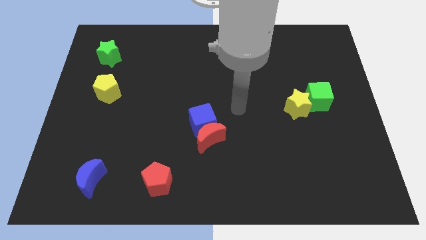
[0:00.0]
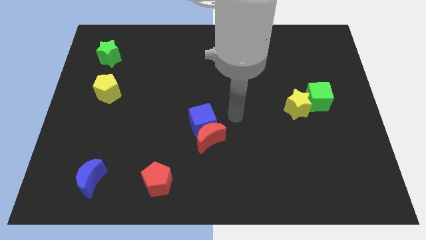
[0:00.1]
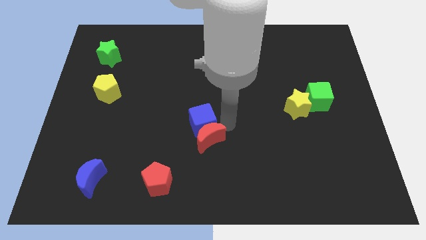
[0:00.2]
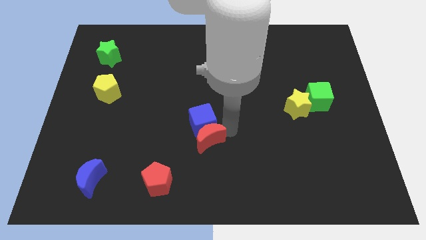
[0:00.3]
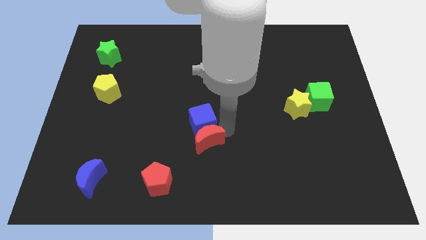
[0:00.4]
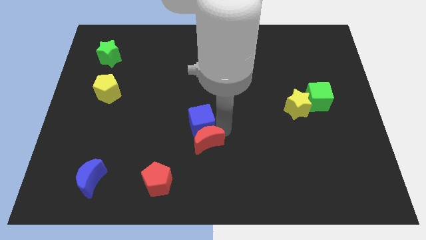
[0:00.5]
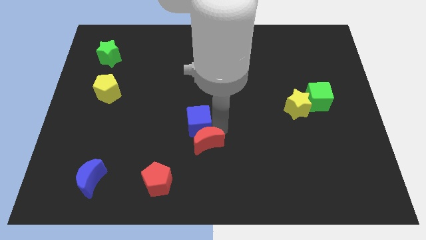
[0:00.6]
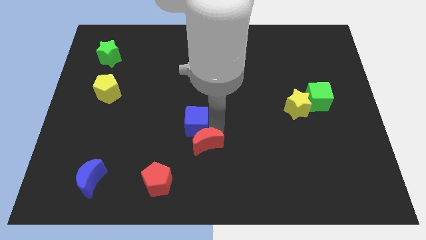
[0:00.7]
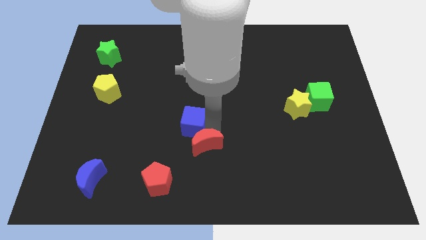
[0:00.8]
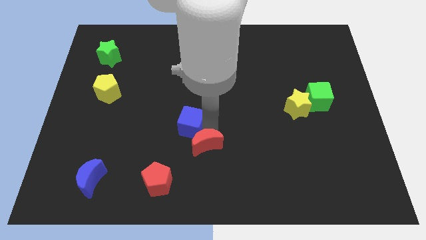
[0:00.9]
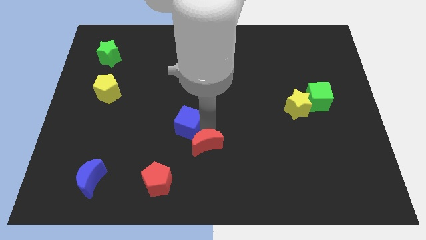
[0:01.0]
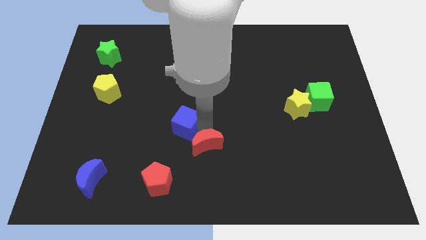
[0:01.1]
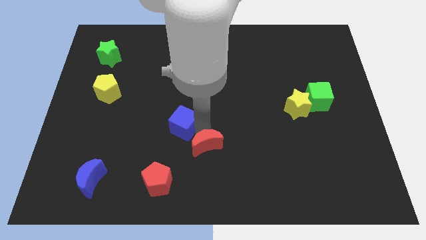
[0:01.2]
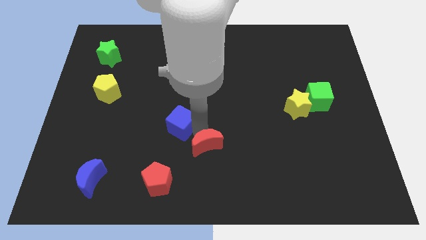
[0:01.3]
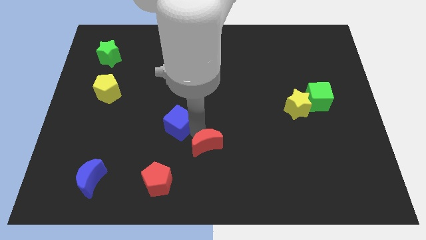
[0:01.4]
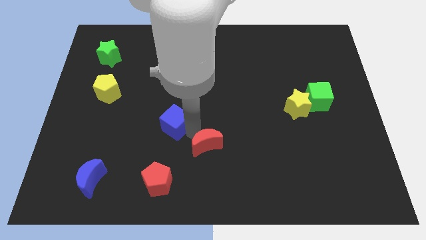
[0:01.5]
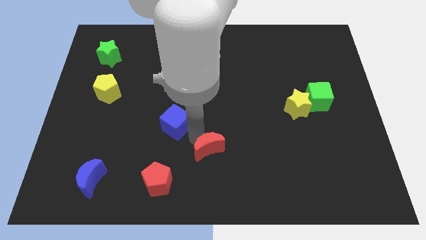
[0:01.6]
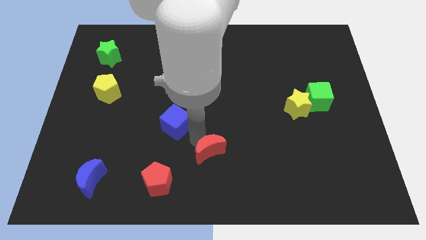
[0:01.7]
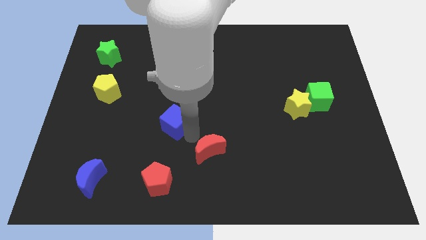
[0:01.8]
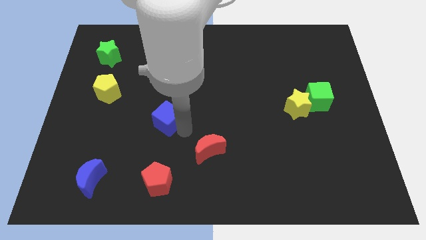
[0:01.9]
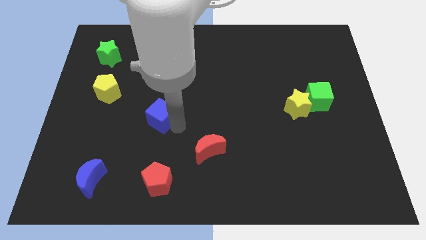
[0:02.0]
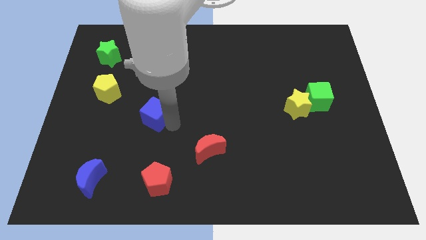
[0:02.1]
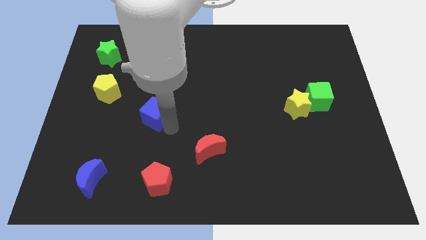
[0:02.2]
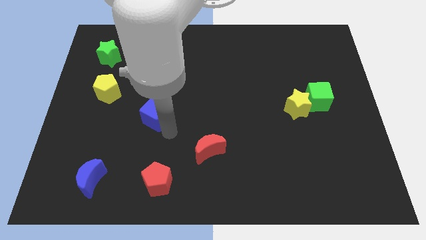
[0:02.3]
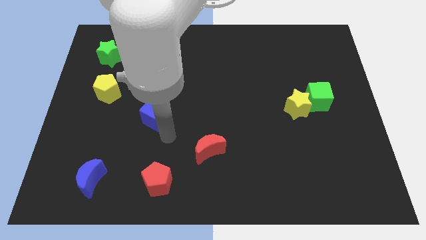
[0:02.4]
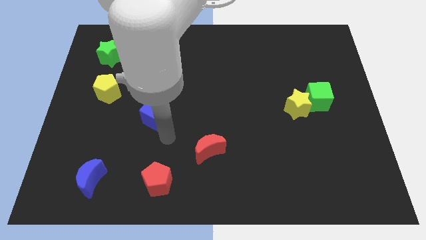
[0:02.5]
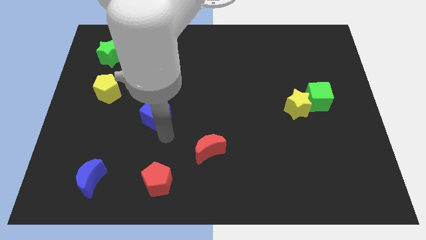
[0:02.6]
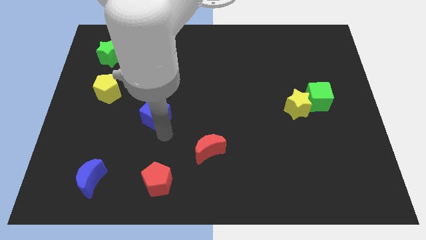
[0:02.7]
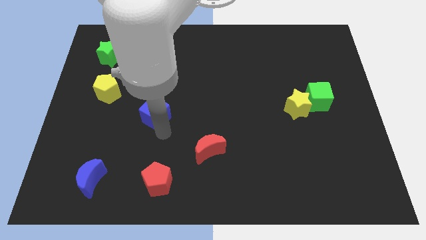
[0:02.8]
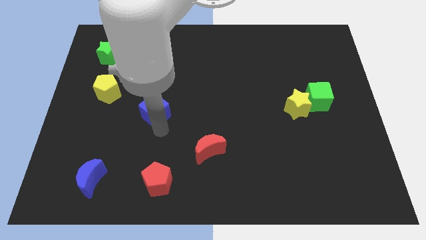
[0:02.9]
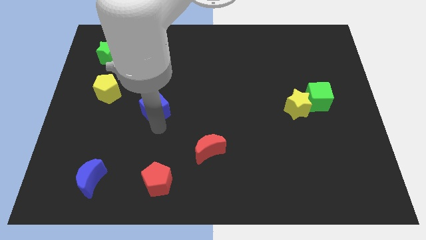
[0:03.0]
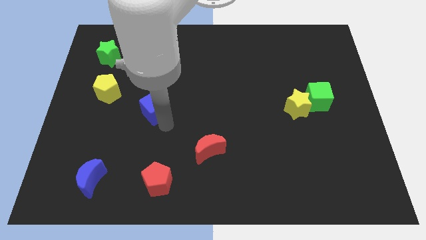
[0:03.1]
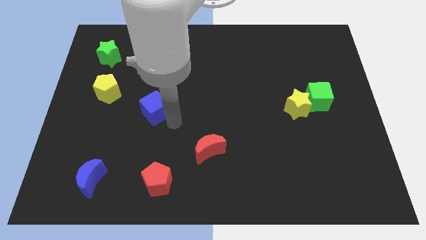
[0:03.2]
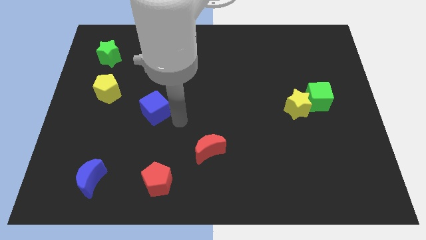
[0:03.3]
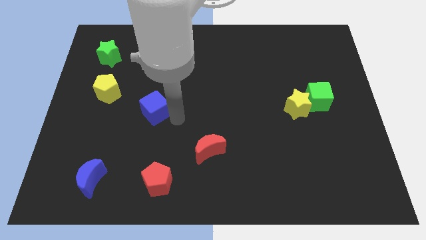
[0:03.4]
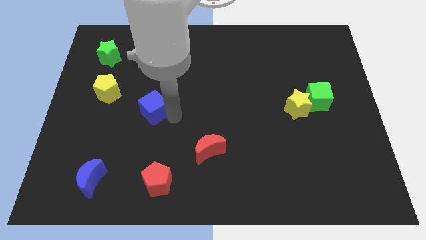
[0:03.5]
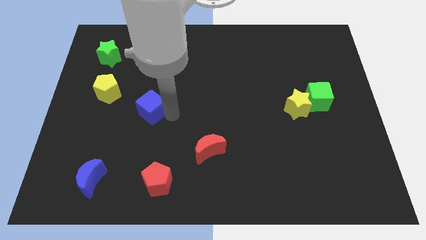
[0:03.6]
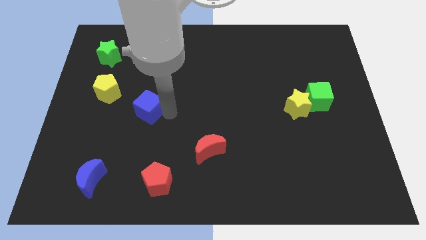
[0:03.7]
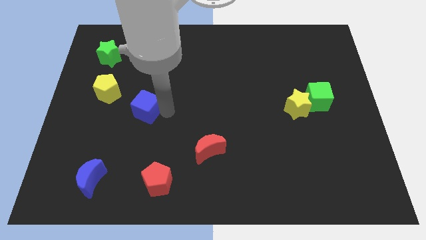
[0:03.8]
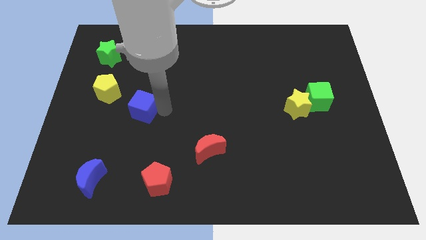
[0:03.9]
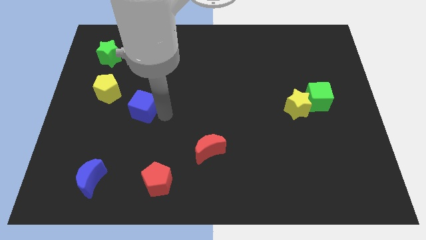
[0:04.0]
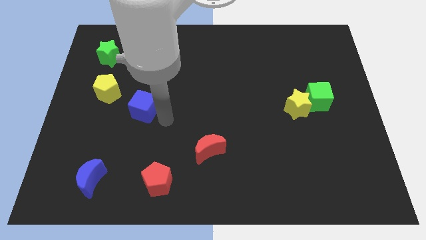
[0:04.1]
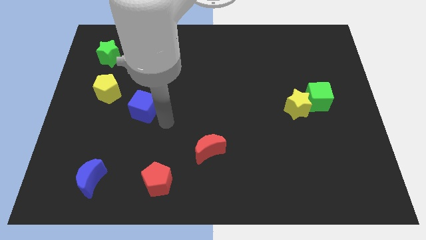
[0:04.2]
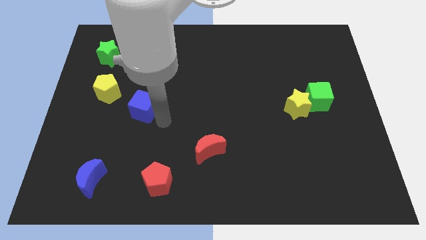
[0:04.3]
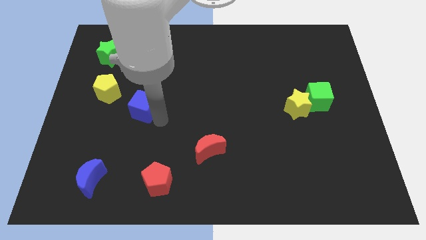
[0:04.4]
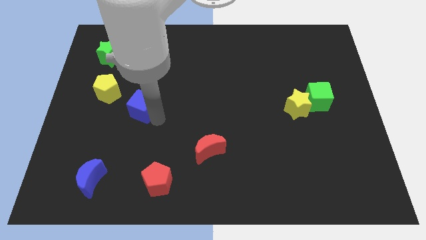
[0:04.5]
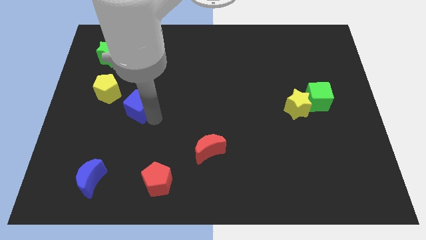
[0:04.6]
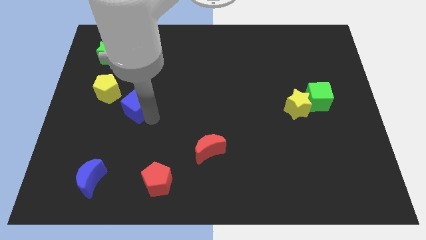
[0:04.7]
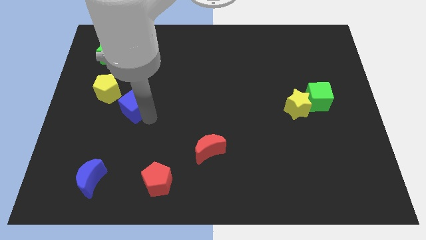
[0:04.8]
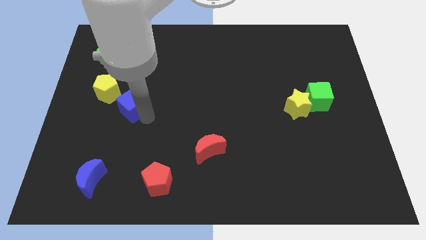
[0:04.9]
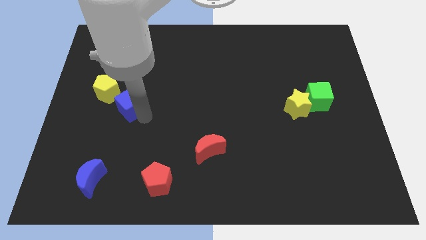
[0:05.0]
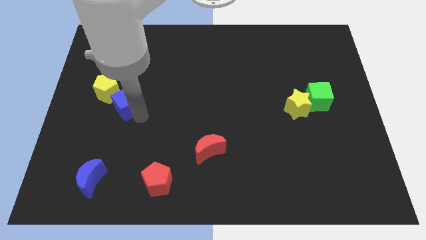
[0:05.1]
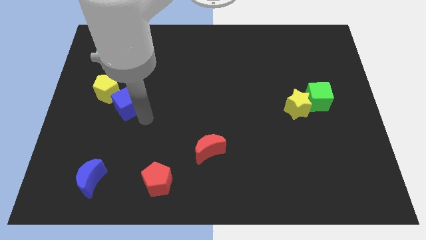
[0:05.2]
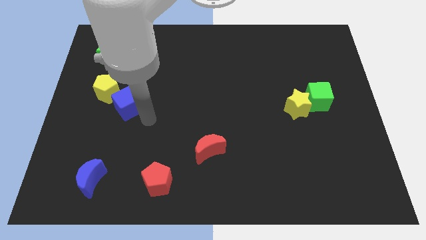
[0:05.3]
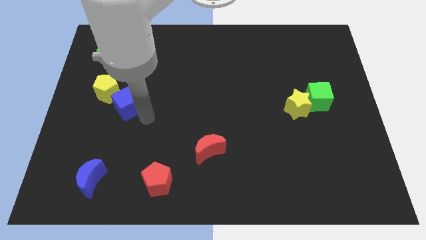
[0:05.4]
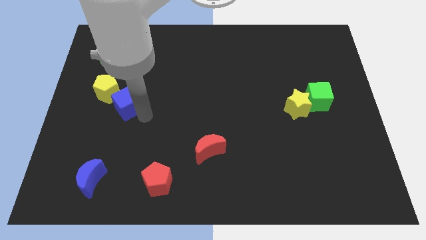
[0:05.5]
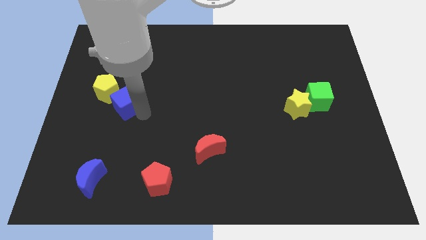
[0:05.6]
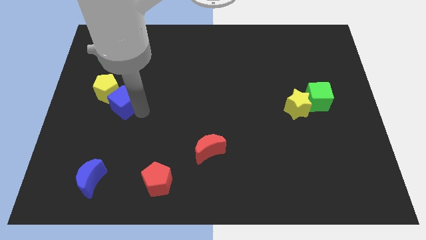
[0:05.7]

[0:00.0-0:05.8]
slide the blue cube next to the yellow pentagon

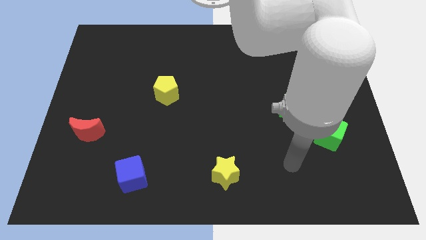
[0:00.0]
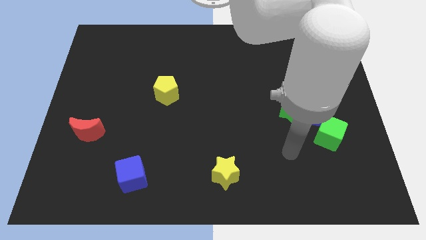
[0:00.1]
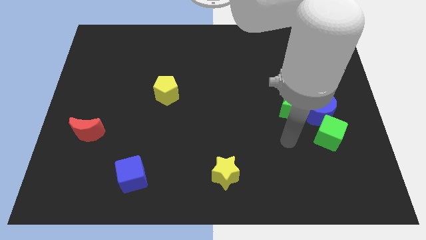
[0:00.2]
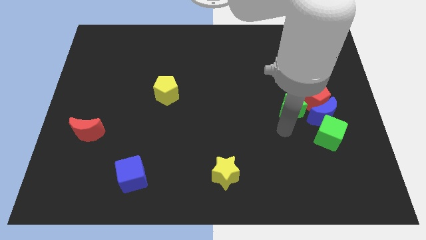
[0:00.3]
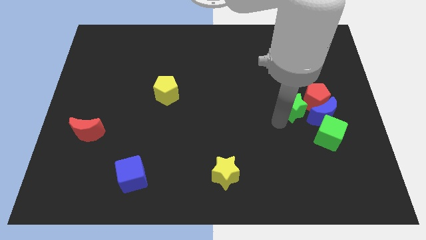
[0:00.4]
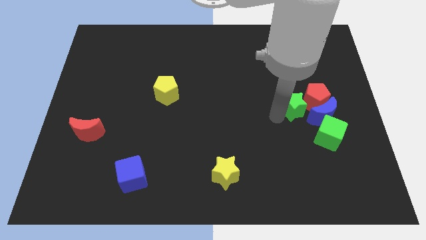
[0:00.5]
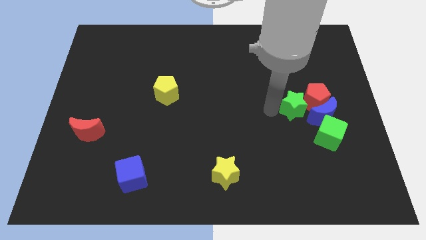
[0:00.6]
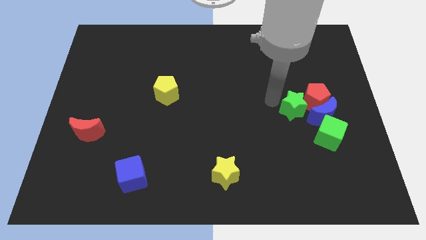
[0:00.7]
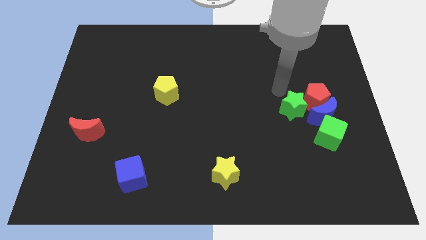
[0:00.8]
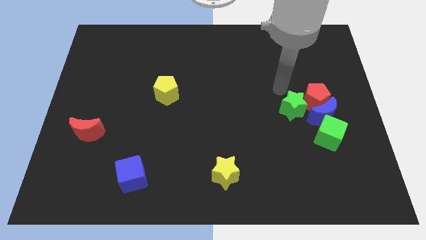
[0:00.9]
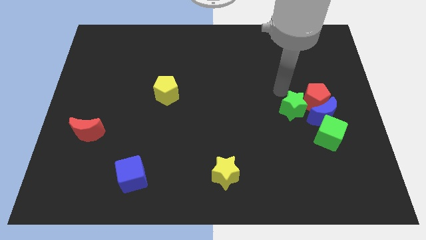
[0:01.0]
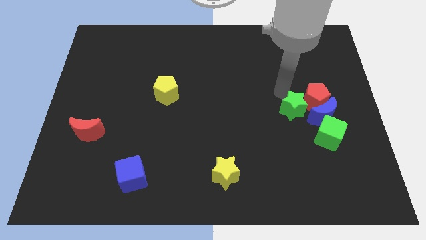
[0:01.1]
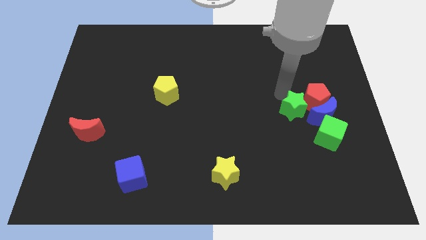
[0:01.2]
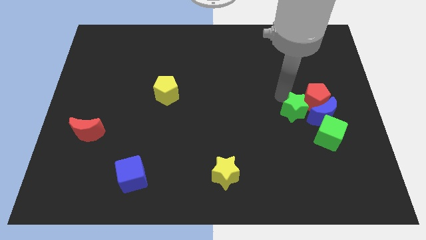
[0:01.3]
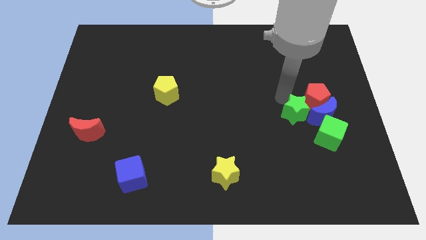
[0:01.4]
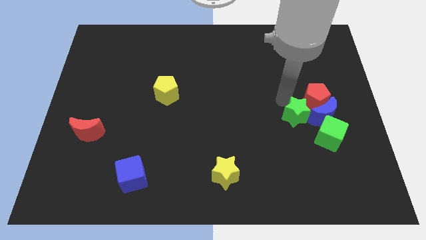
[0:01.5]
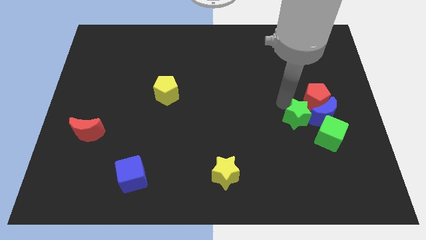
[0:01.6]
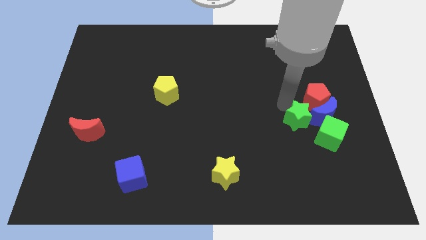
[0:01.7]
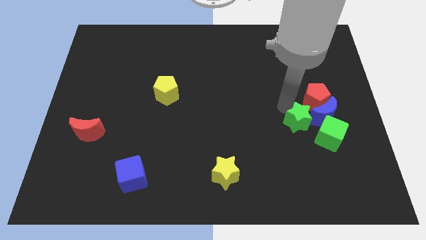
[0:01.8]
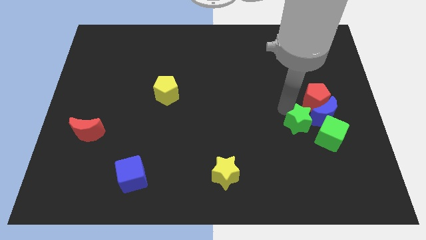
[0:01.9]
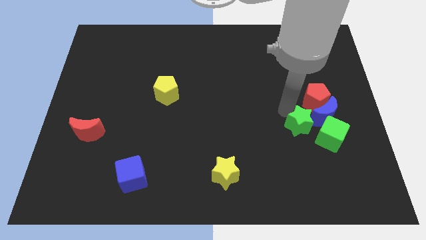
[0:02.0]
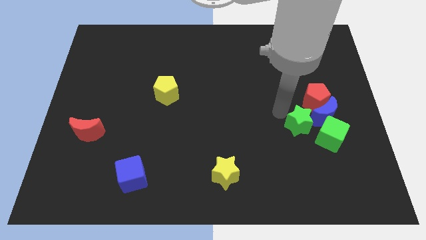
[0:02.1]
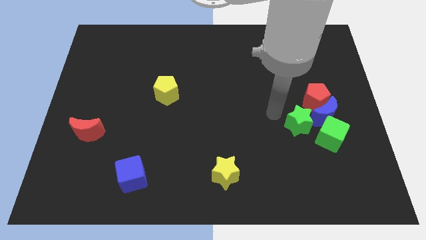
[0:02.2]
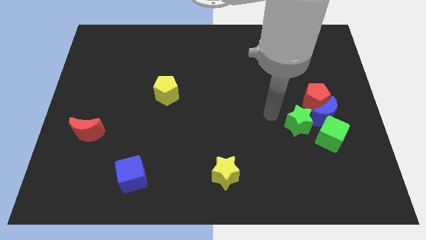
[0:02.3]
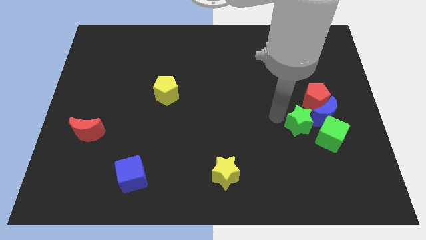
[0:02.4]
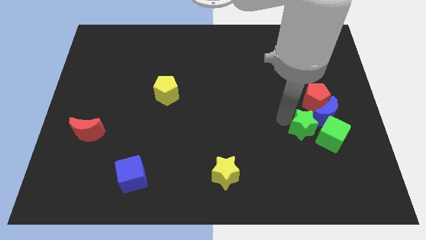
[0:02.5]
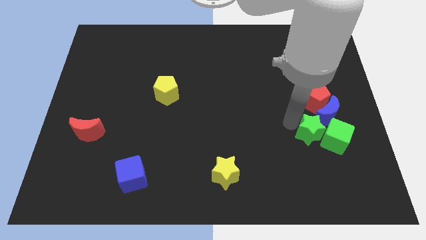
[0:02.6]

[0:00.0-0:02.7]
slide the green star next to the green cube
